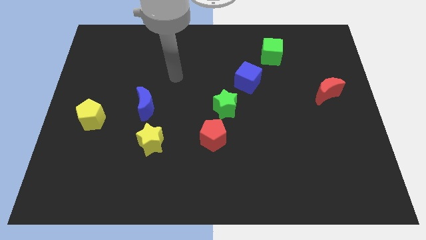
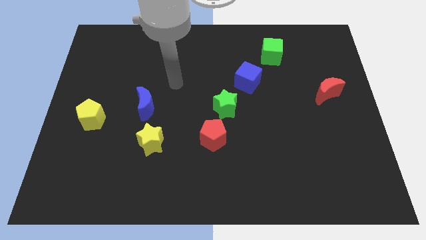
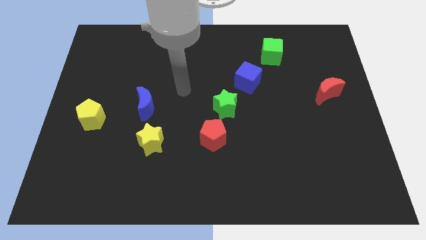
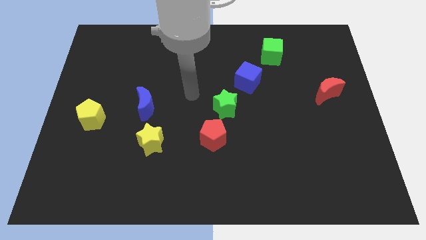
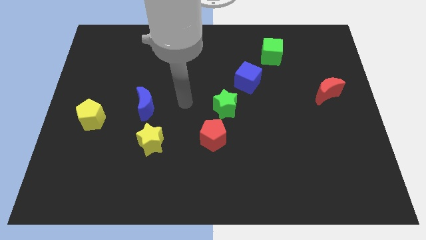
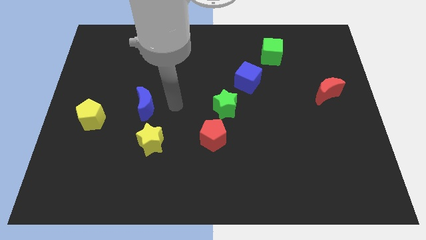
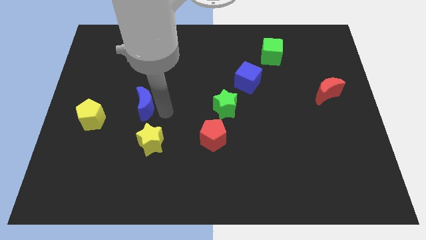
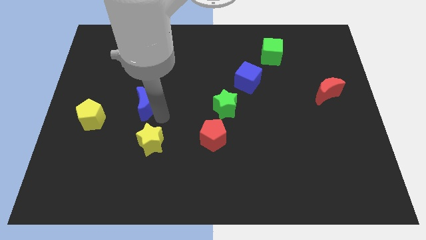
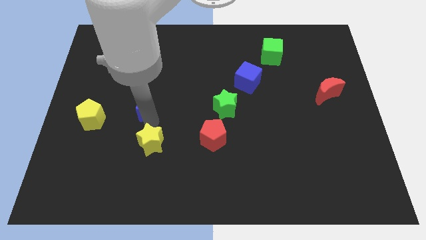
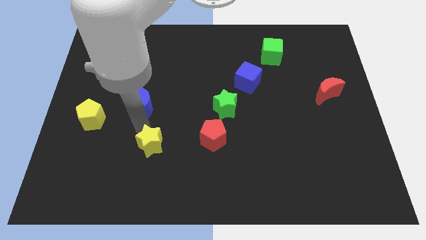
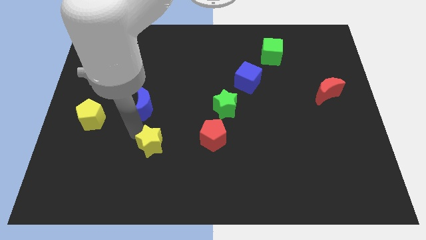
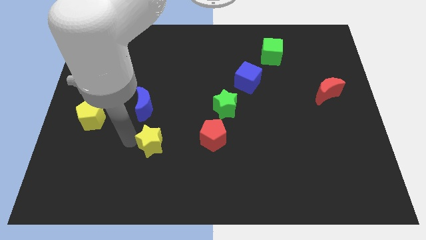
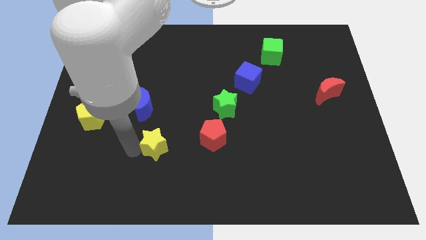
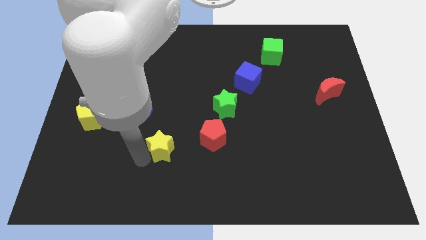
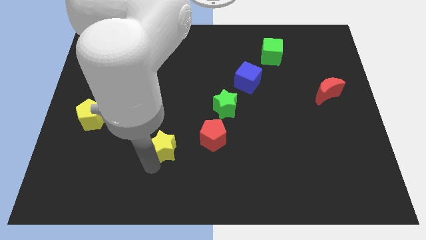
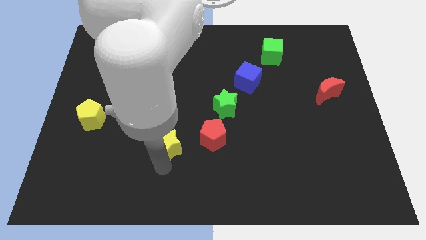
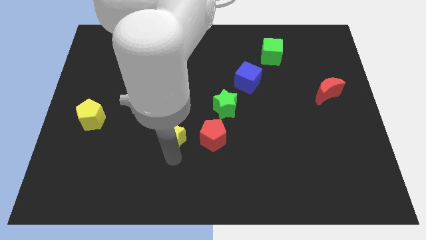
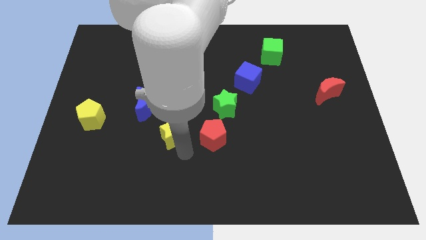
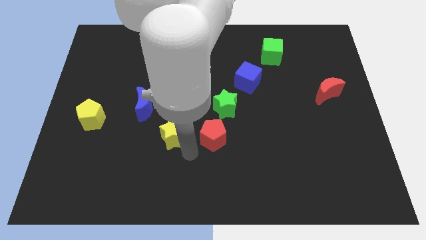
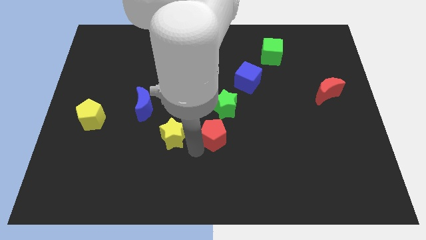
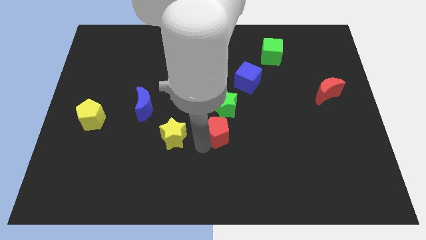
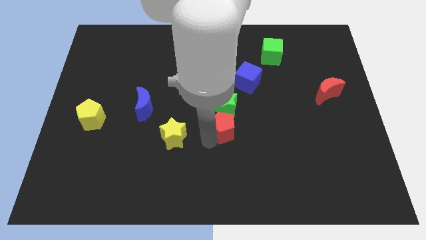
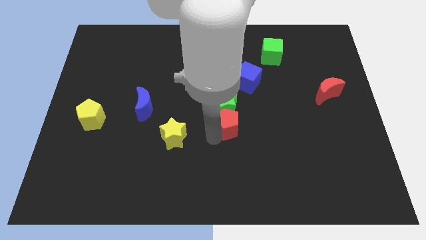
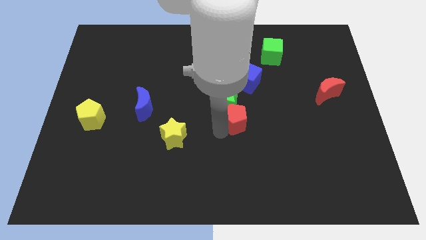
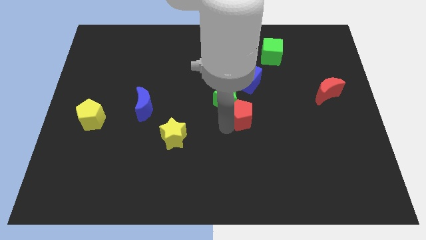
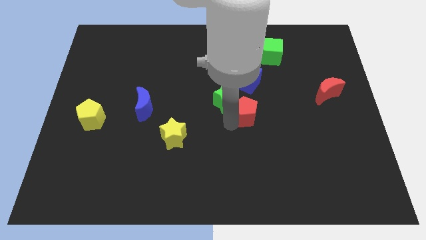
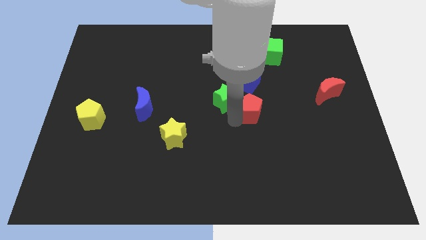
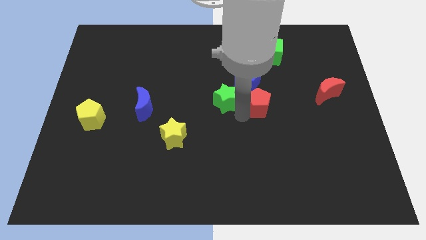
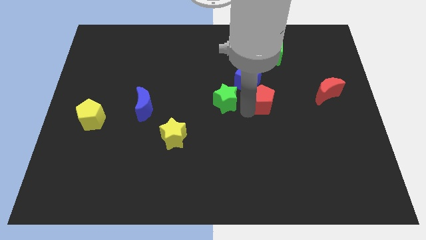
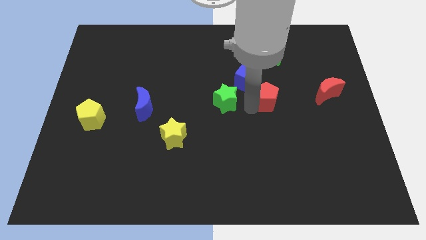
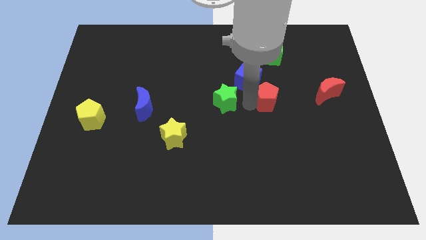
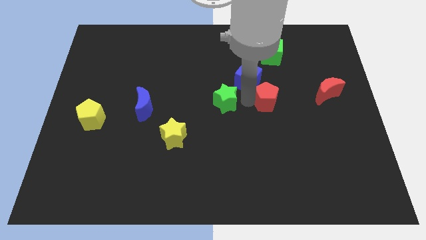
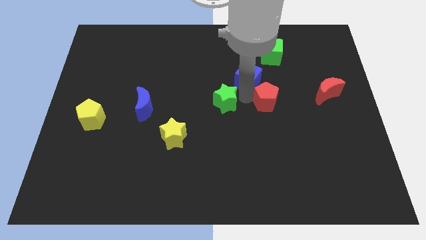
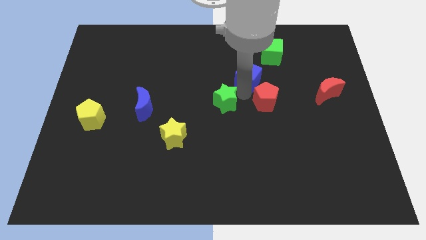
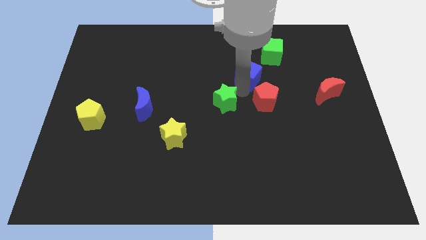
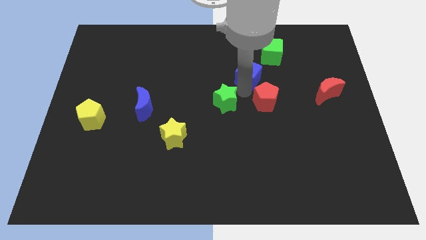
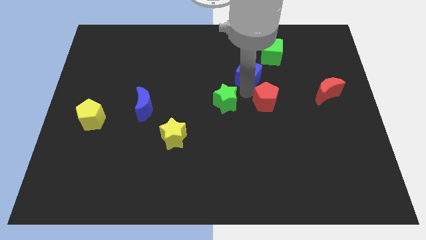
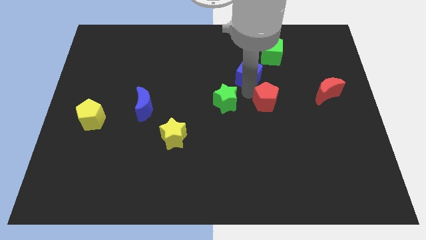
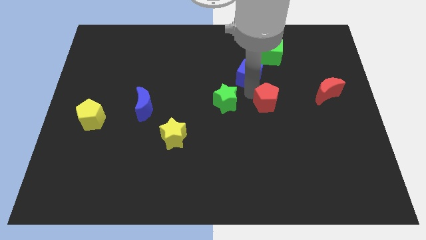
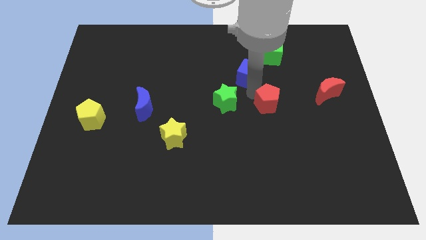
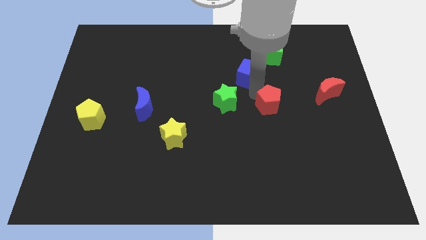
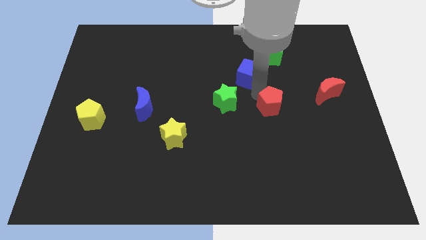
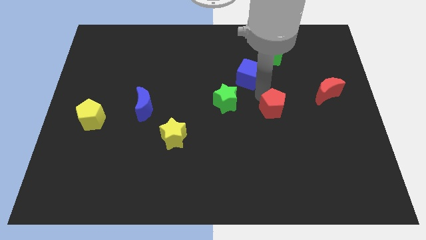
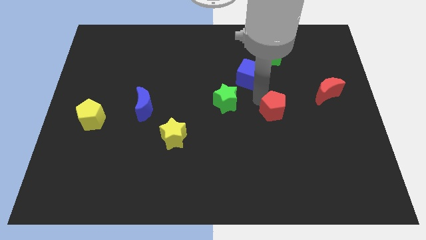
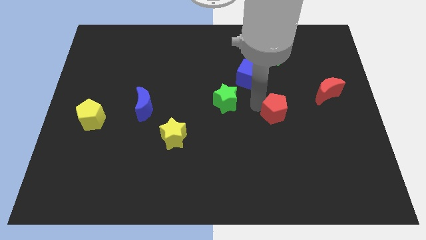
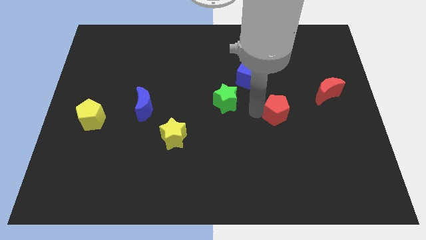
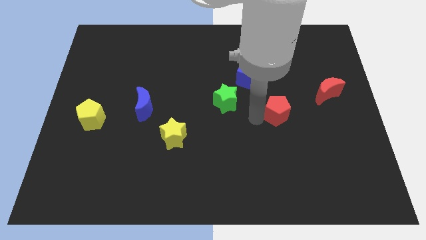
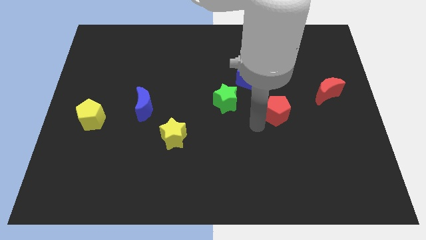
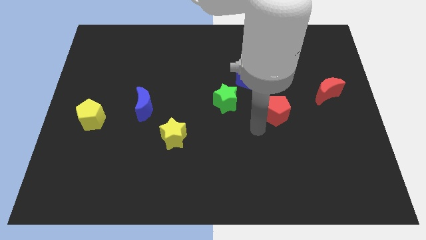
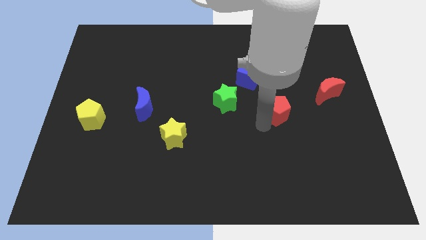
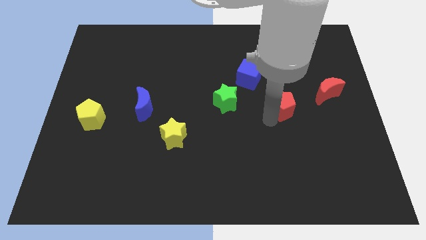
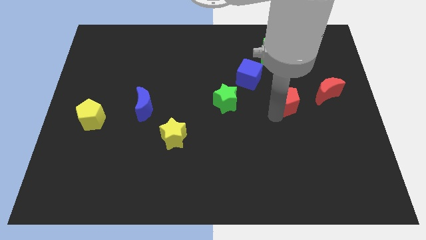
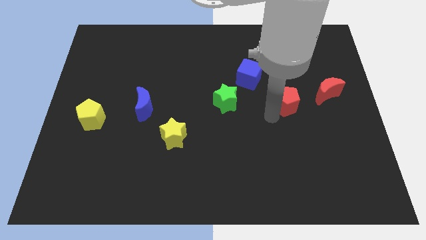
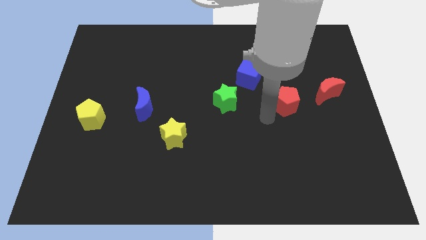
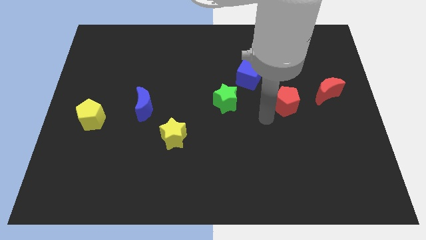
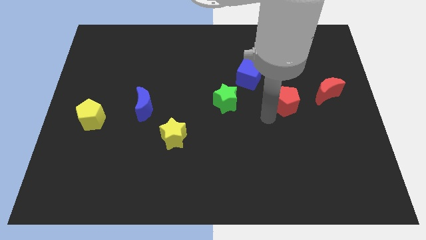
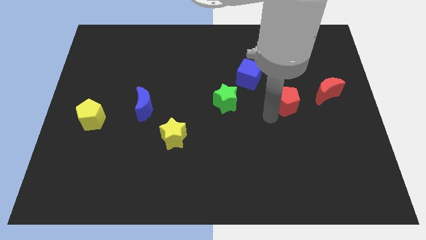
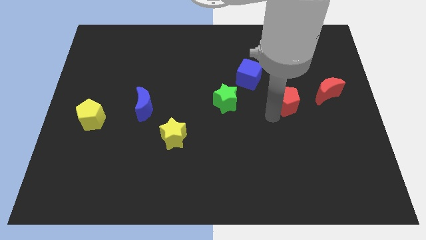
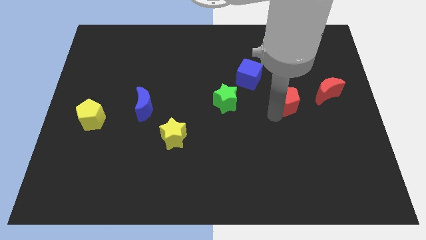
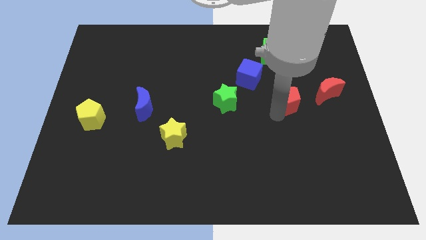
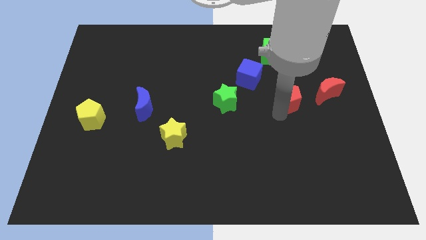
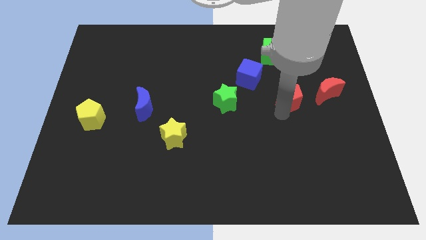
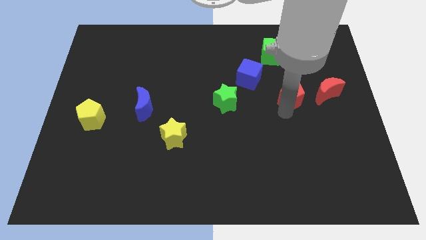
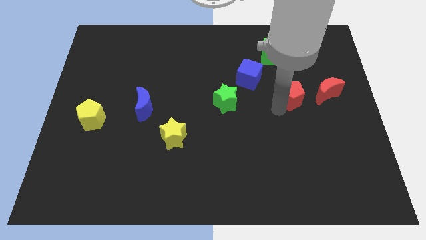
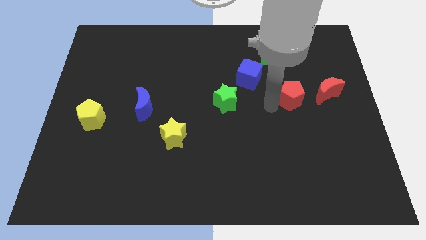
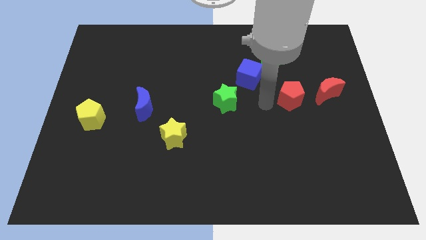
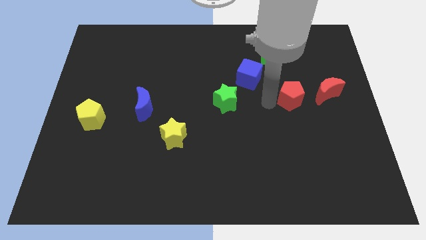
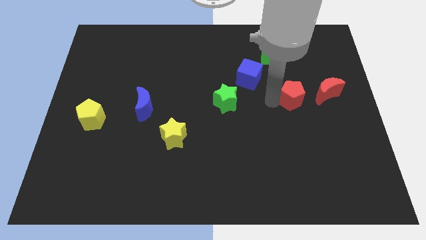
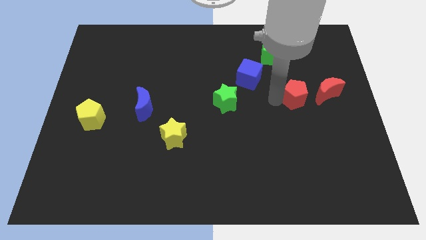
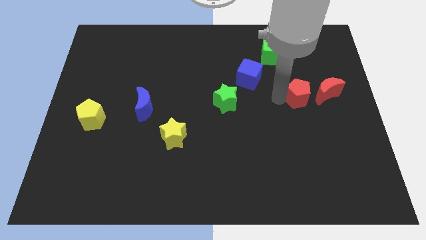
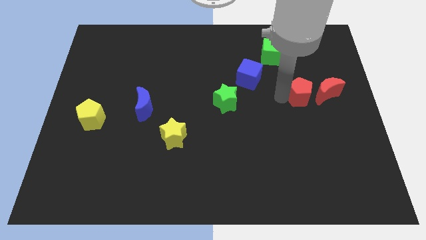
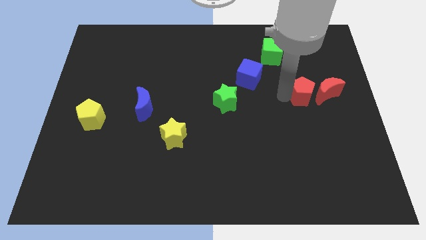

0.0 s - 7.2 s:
move the red pentagon close to the red moon
